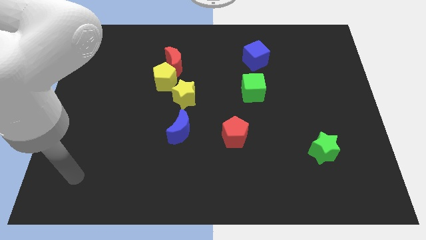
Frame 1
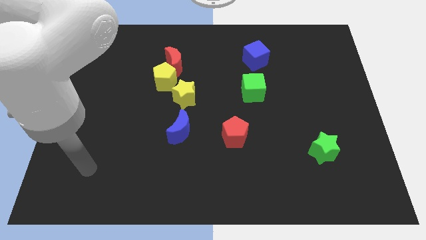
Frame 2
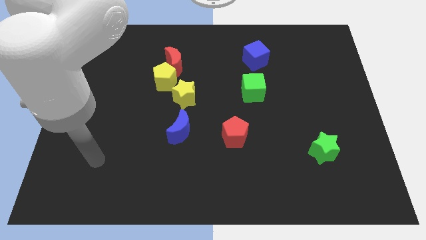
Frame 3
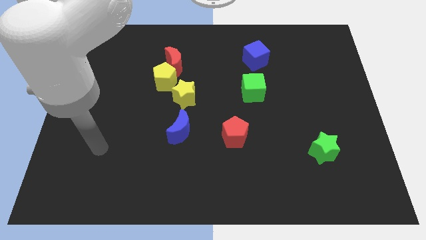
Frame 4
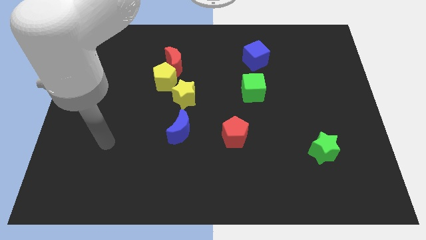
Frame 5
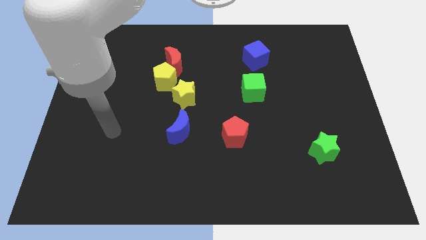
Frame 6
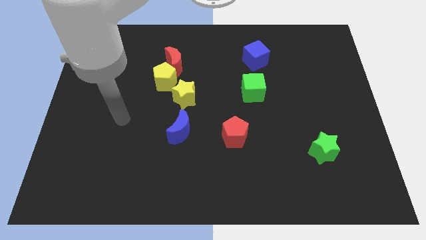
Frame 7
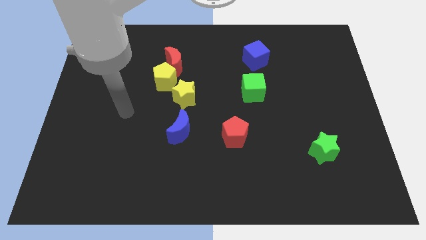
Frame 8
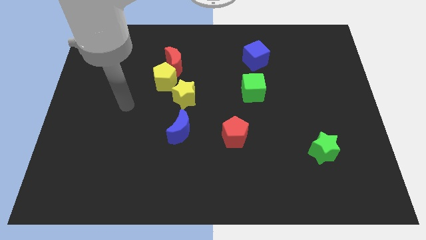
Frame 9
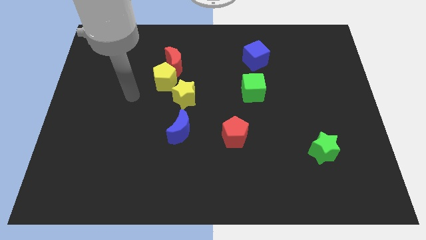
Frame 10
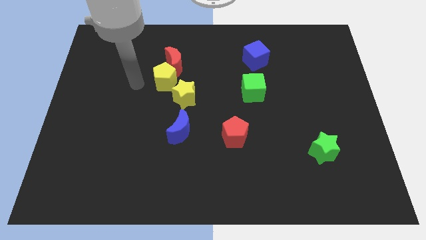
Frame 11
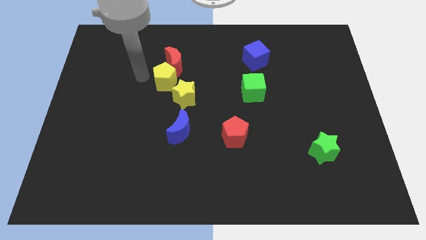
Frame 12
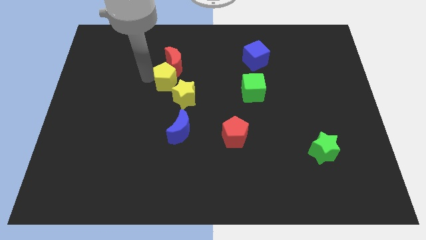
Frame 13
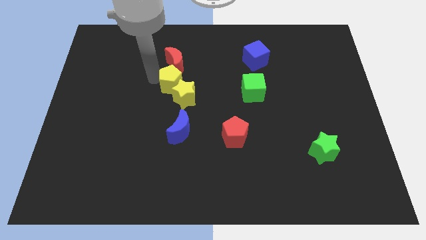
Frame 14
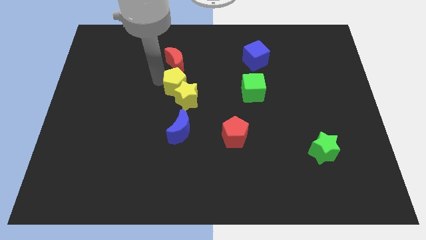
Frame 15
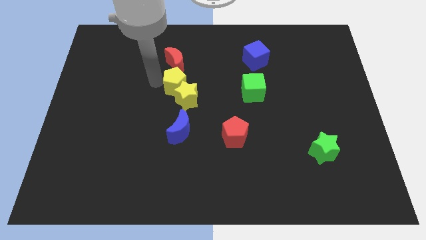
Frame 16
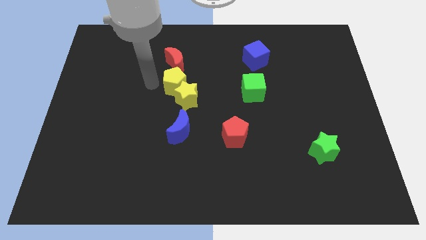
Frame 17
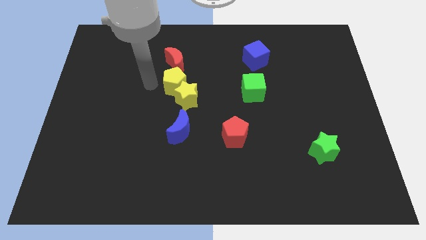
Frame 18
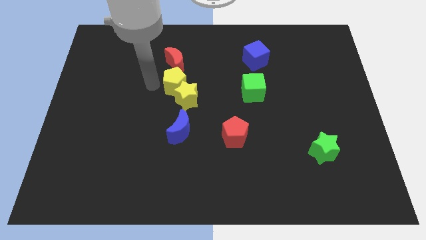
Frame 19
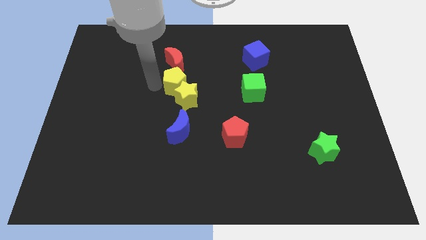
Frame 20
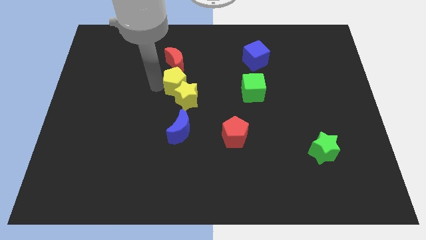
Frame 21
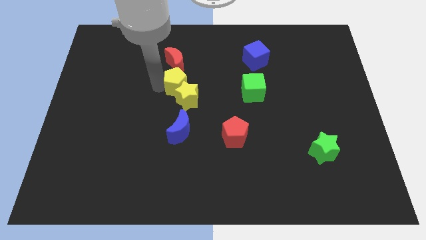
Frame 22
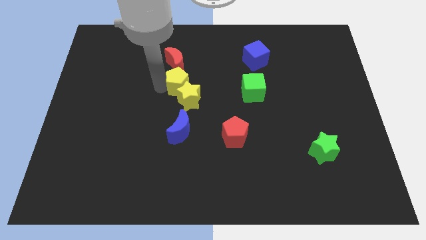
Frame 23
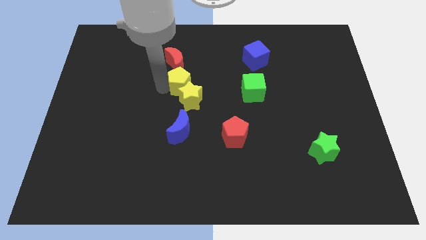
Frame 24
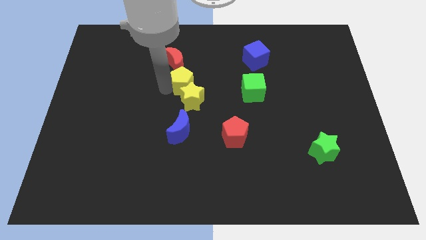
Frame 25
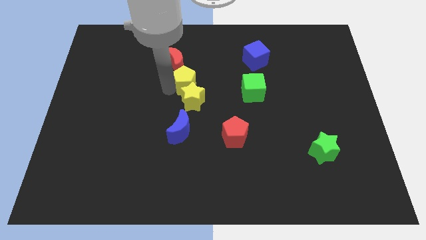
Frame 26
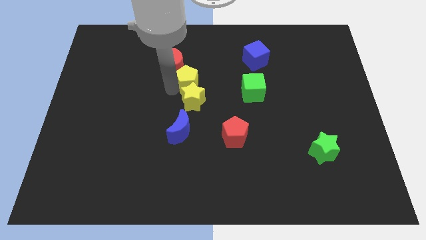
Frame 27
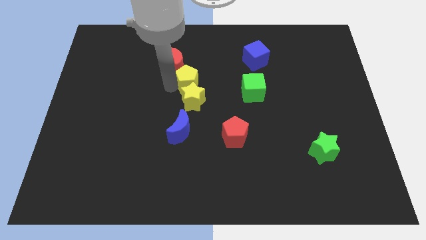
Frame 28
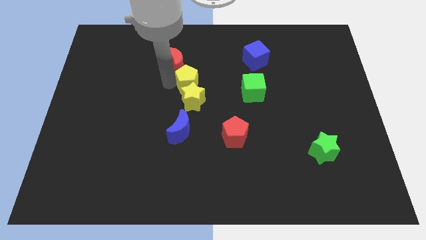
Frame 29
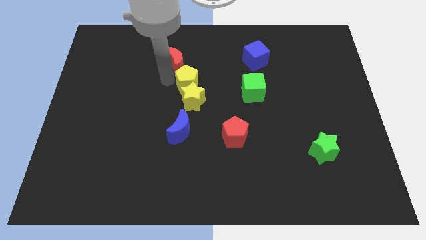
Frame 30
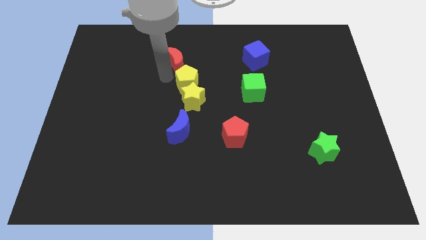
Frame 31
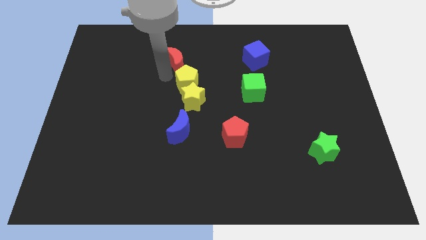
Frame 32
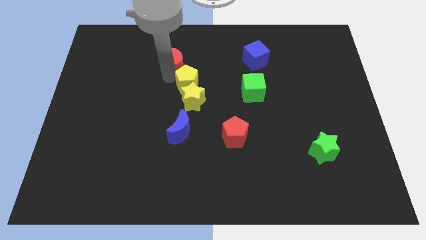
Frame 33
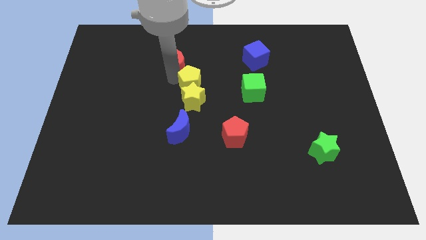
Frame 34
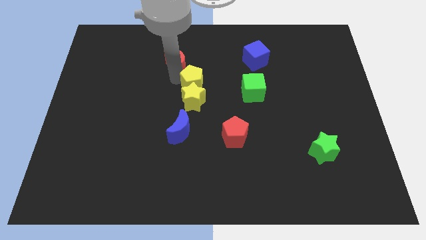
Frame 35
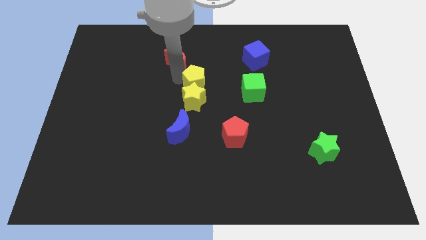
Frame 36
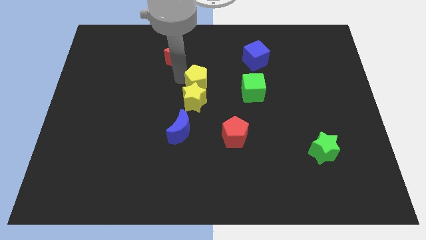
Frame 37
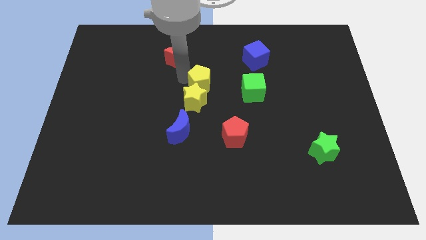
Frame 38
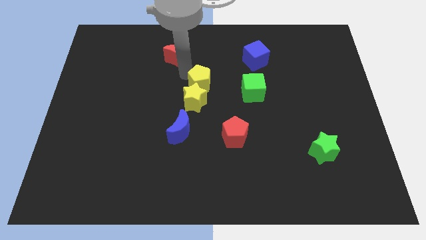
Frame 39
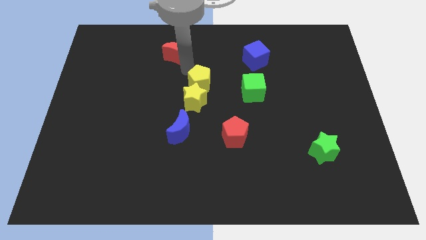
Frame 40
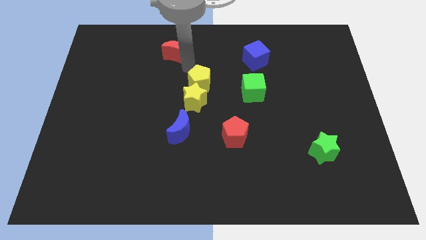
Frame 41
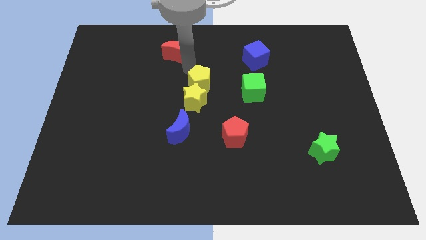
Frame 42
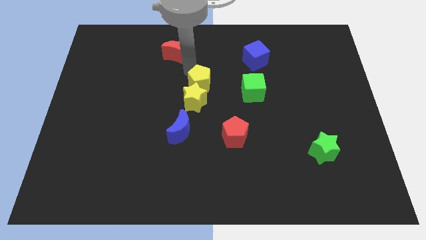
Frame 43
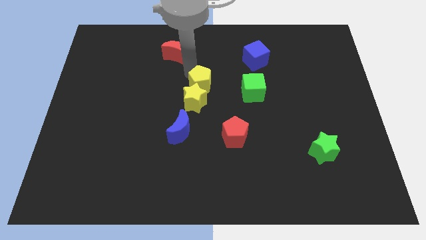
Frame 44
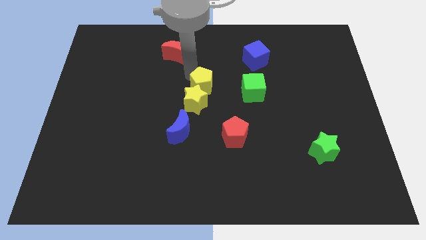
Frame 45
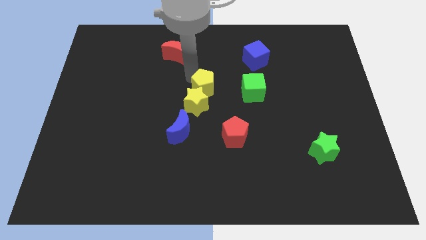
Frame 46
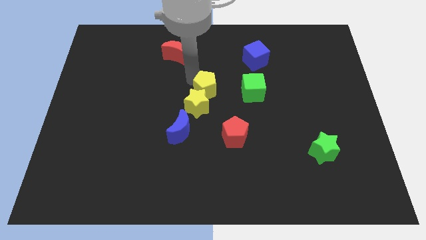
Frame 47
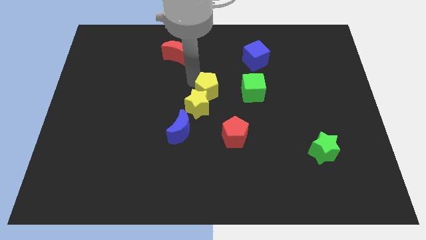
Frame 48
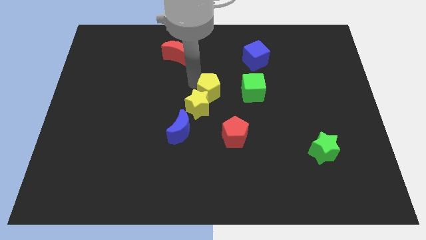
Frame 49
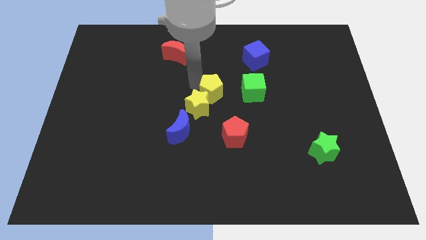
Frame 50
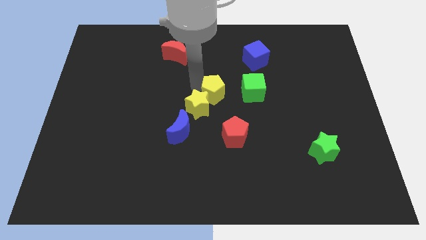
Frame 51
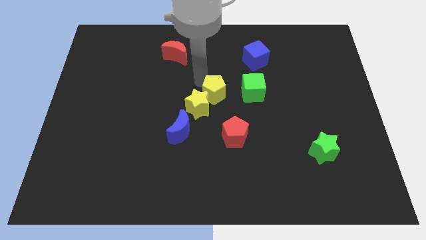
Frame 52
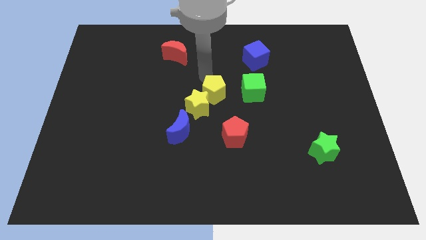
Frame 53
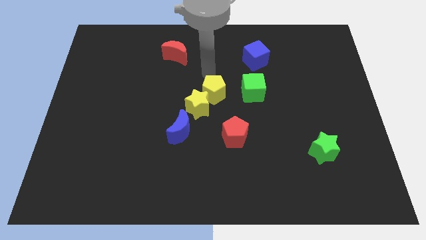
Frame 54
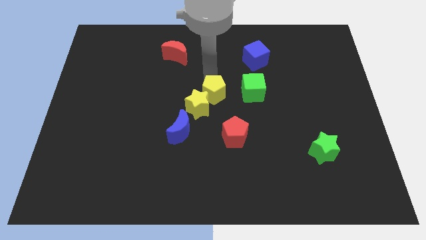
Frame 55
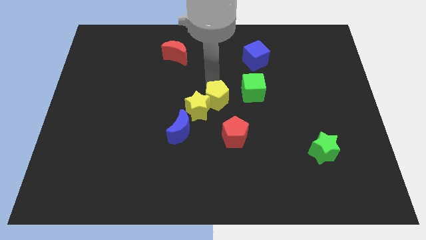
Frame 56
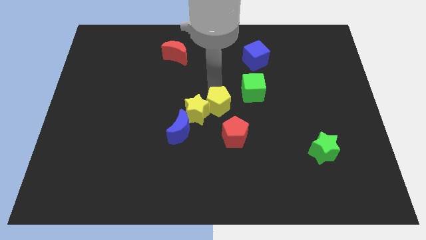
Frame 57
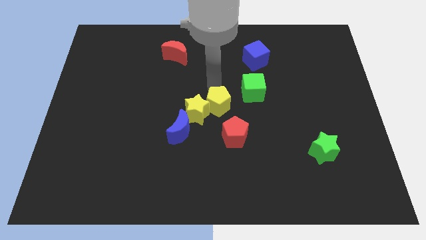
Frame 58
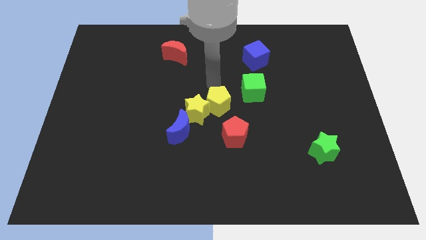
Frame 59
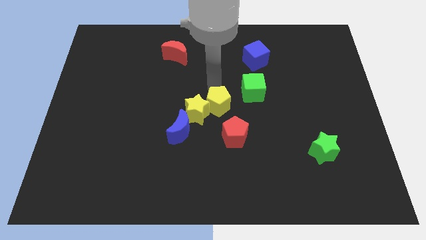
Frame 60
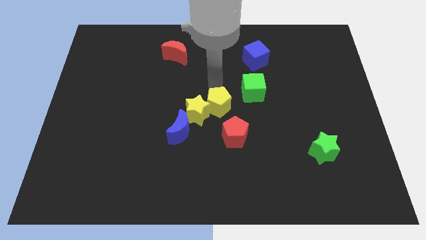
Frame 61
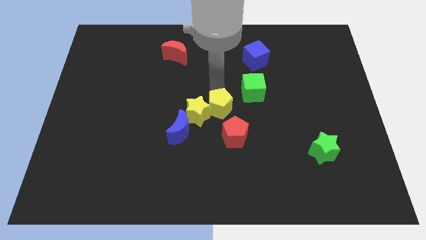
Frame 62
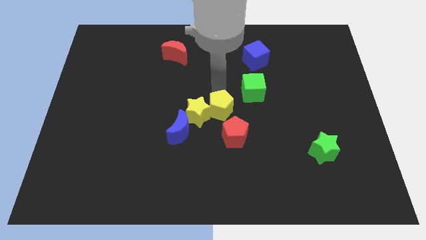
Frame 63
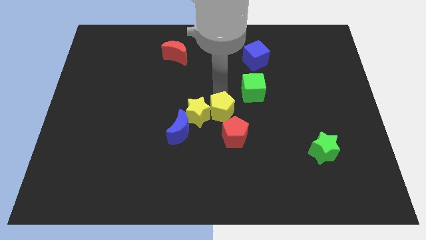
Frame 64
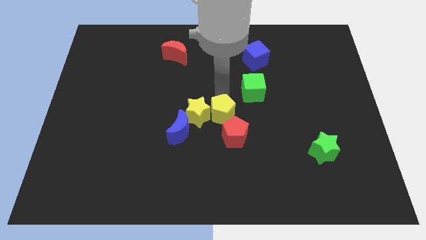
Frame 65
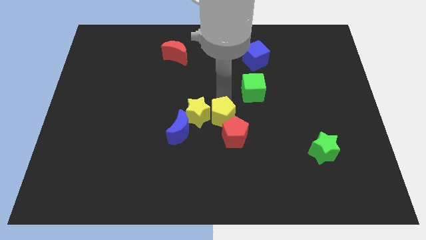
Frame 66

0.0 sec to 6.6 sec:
put the yellow pentagon towards the red pentagon

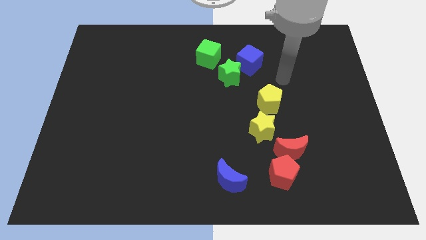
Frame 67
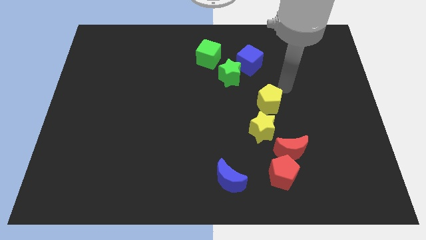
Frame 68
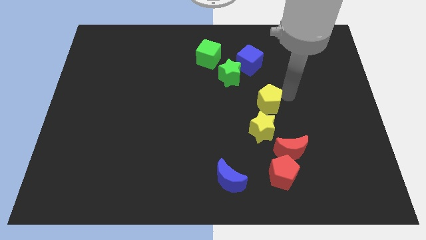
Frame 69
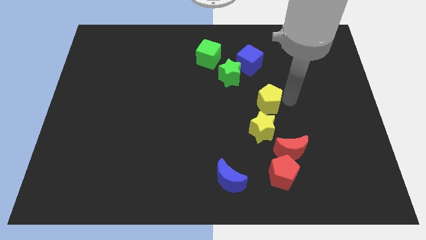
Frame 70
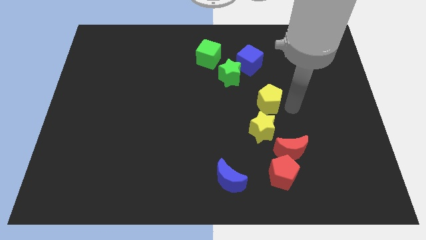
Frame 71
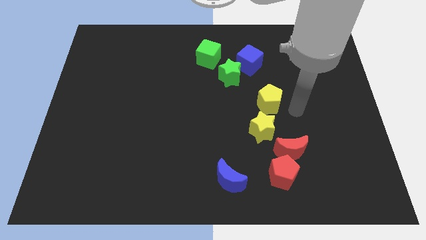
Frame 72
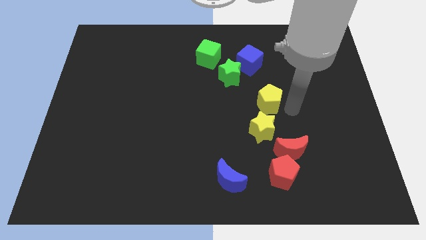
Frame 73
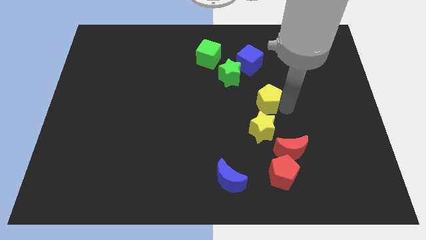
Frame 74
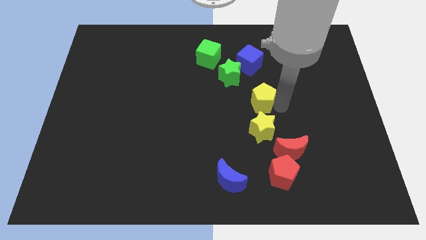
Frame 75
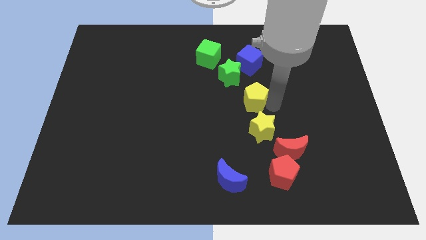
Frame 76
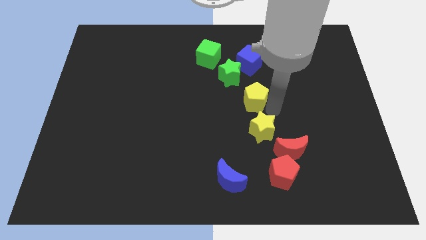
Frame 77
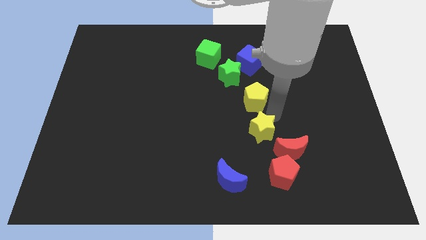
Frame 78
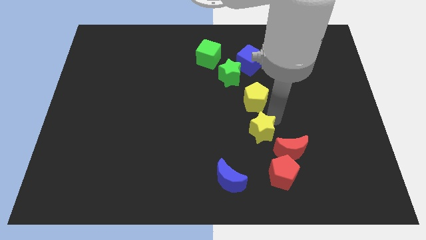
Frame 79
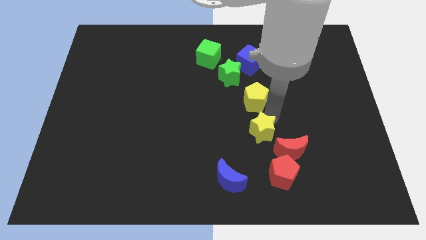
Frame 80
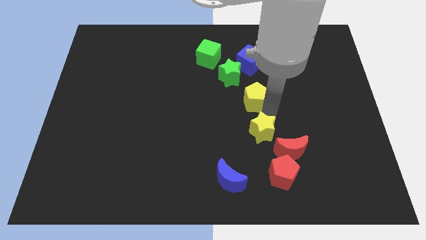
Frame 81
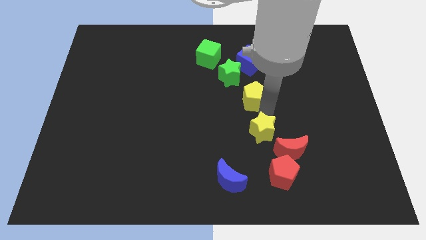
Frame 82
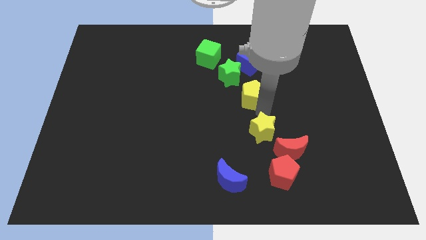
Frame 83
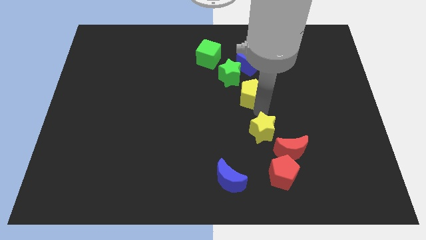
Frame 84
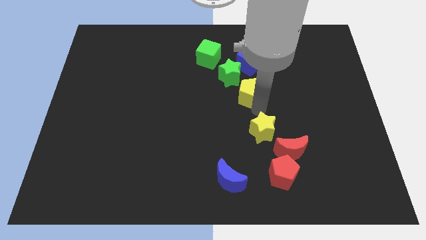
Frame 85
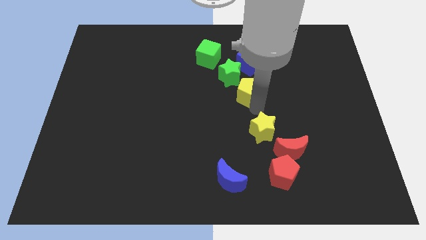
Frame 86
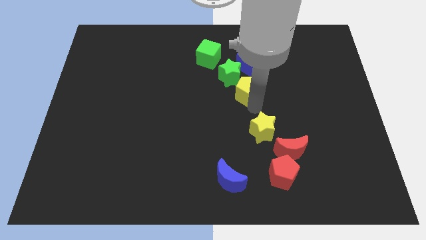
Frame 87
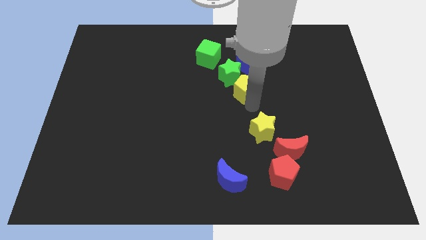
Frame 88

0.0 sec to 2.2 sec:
put the yellow pentagon to the green star
